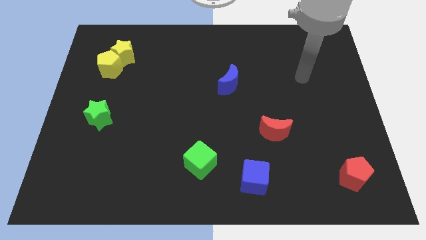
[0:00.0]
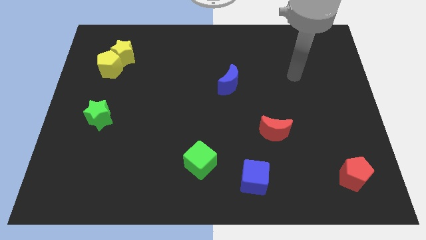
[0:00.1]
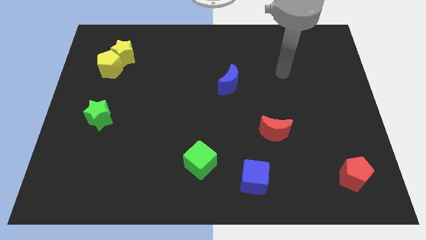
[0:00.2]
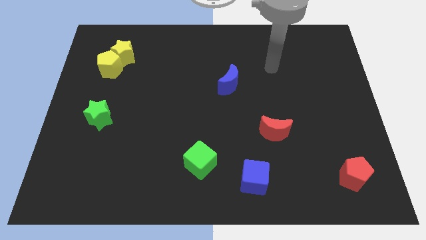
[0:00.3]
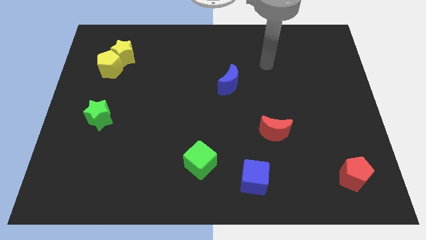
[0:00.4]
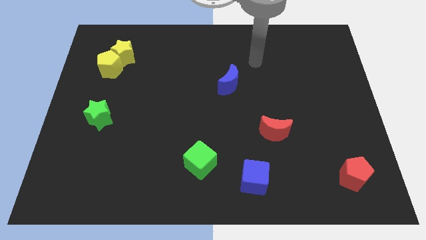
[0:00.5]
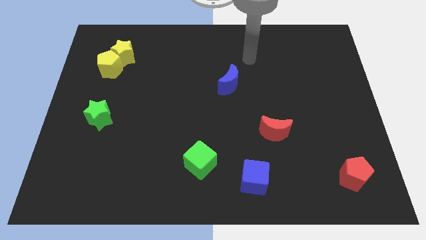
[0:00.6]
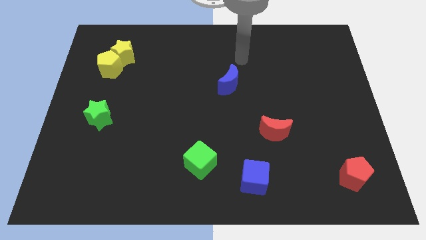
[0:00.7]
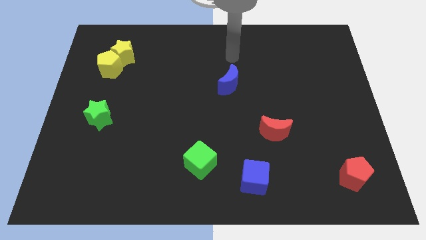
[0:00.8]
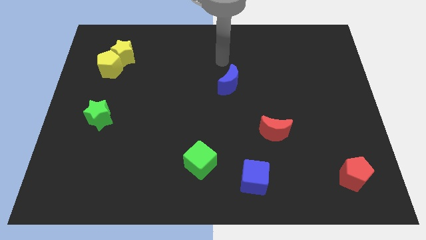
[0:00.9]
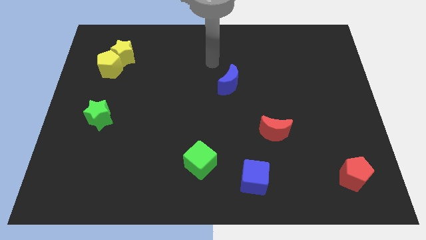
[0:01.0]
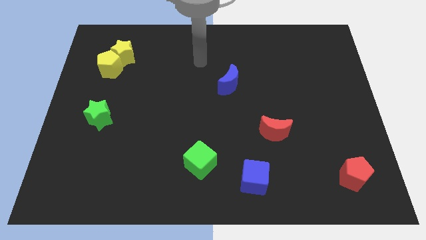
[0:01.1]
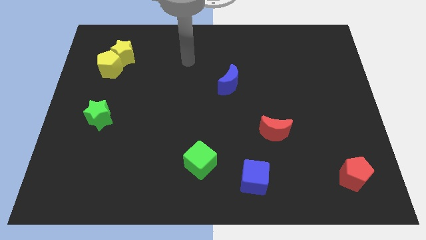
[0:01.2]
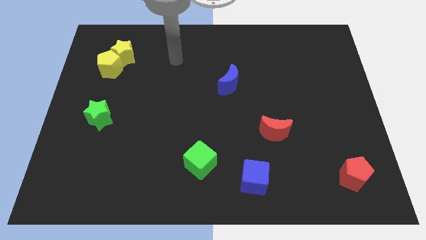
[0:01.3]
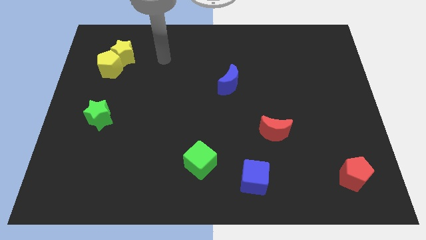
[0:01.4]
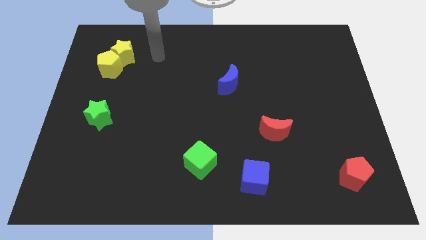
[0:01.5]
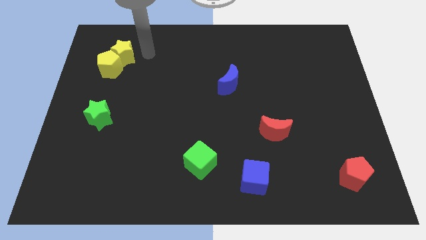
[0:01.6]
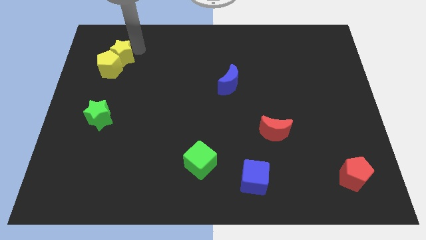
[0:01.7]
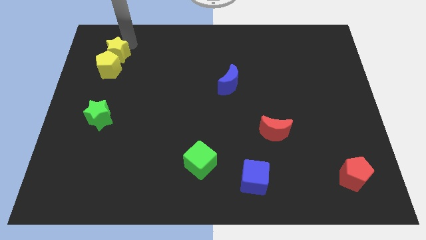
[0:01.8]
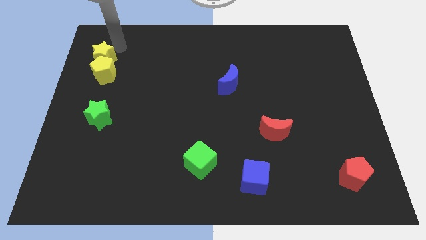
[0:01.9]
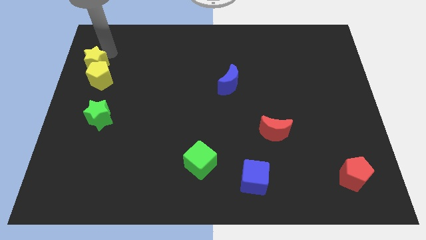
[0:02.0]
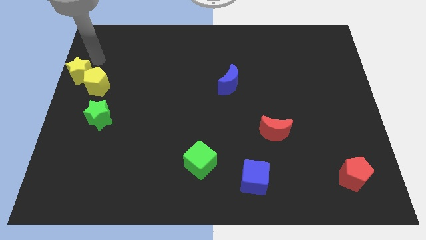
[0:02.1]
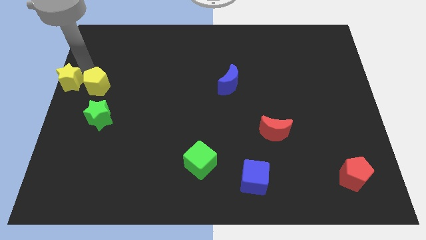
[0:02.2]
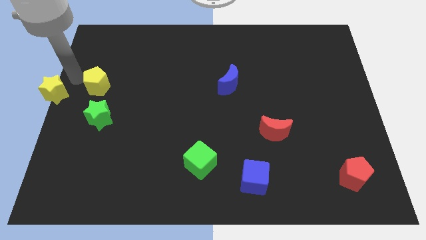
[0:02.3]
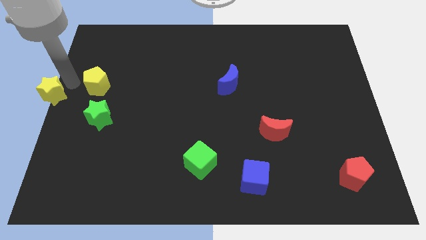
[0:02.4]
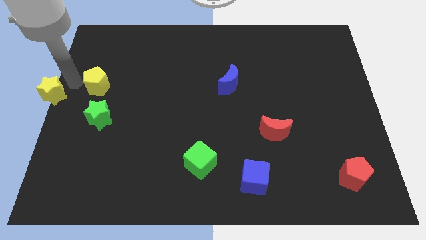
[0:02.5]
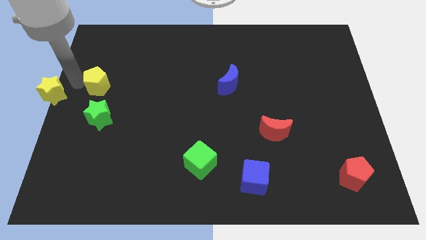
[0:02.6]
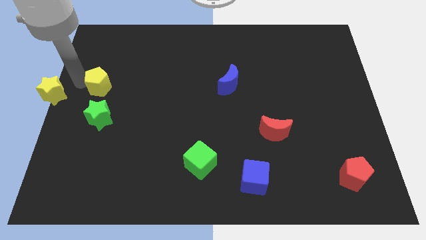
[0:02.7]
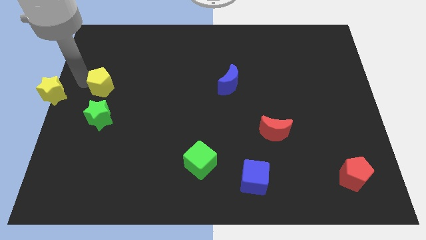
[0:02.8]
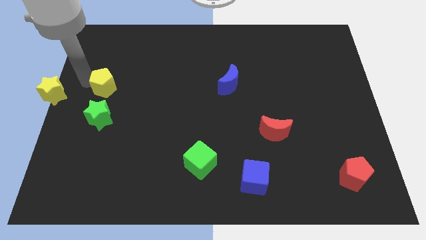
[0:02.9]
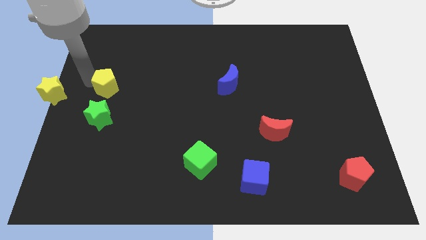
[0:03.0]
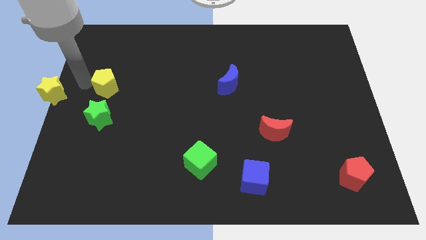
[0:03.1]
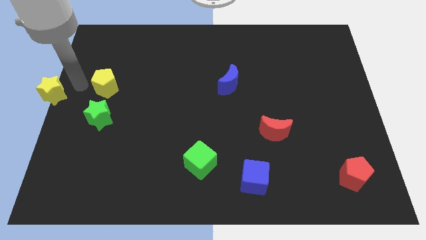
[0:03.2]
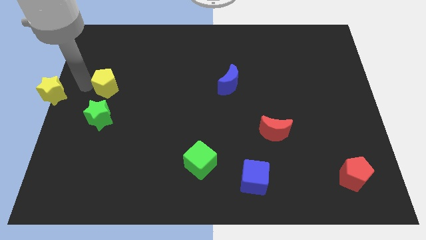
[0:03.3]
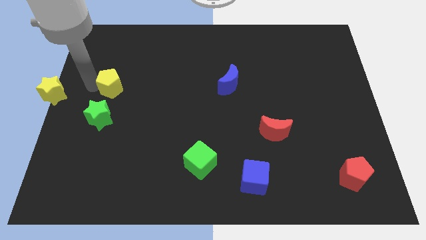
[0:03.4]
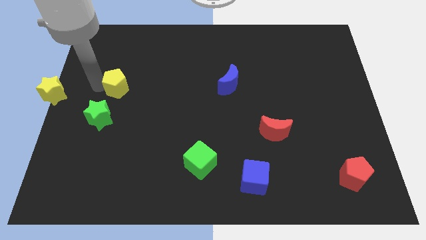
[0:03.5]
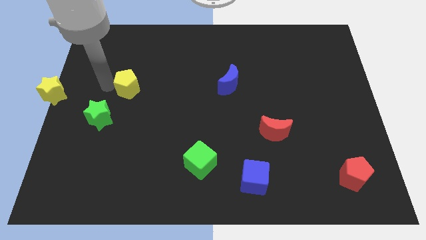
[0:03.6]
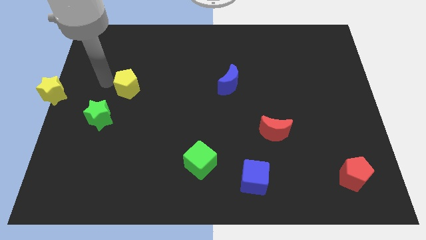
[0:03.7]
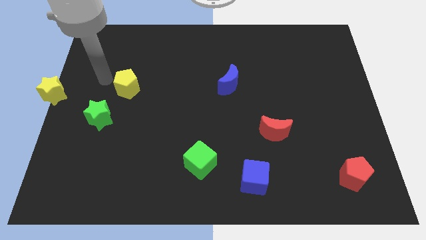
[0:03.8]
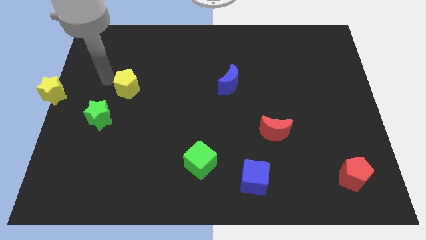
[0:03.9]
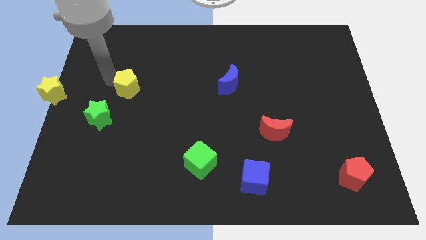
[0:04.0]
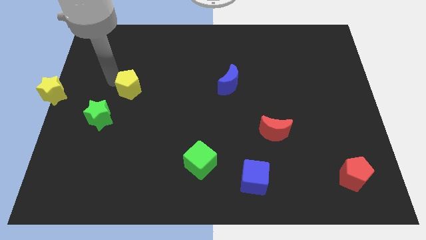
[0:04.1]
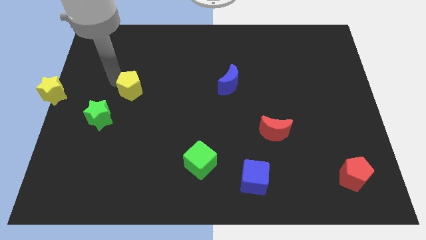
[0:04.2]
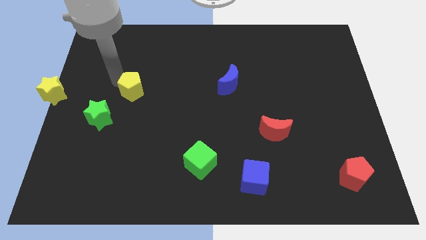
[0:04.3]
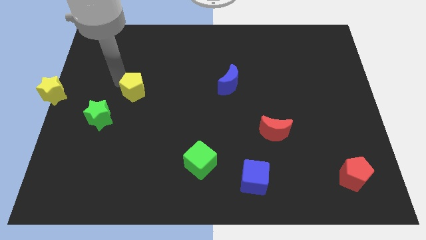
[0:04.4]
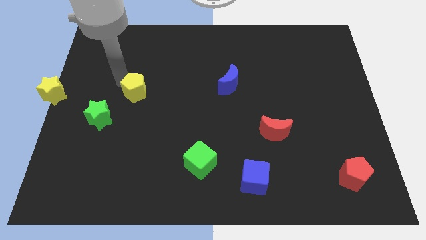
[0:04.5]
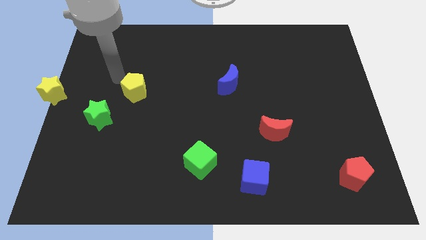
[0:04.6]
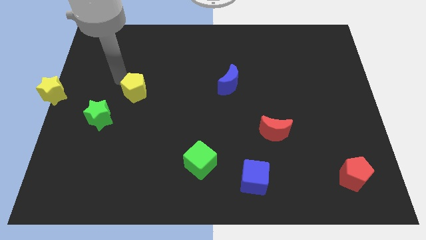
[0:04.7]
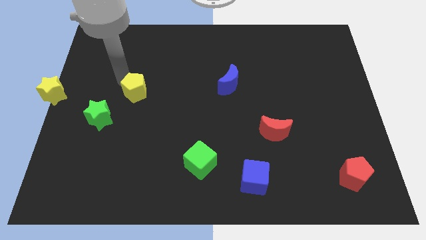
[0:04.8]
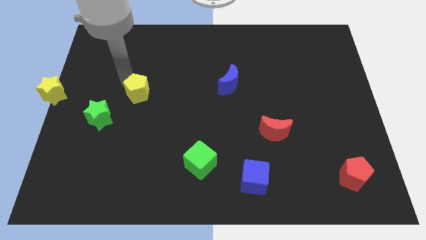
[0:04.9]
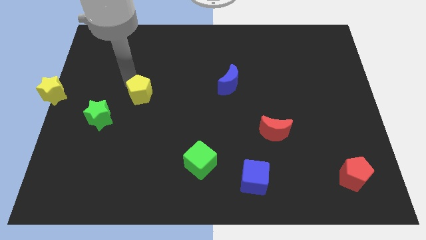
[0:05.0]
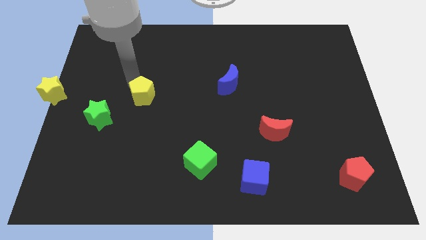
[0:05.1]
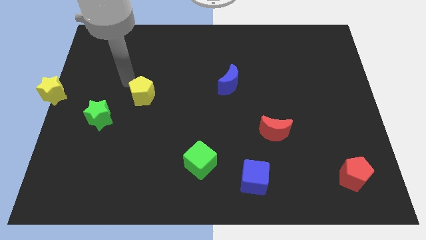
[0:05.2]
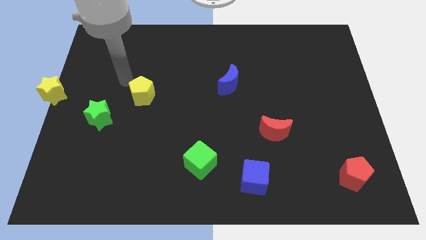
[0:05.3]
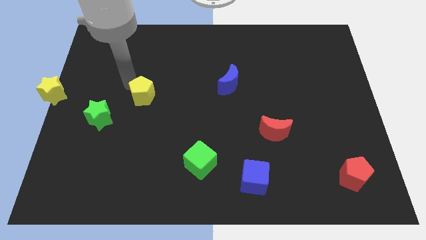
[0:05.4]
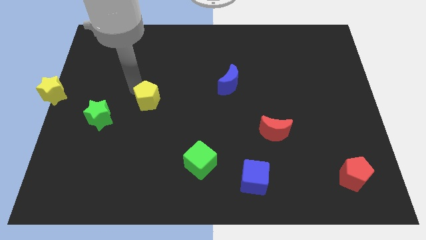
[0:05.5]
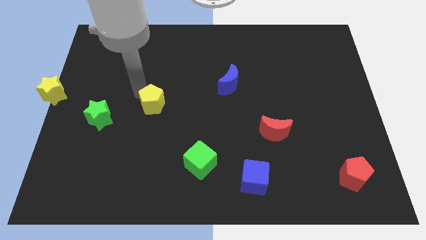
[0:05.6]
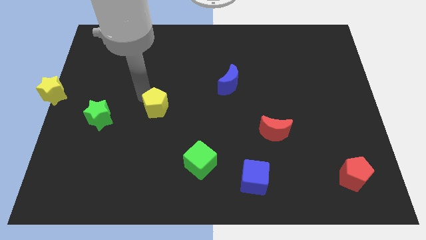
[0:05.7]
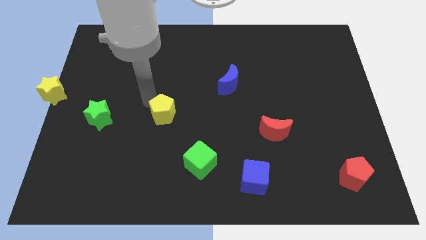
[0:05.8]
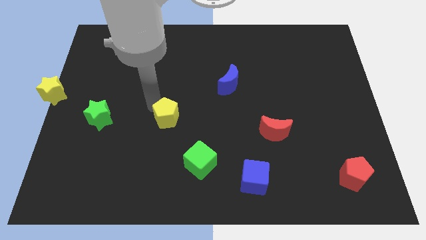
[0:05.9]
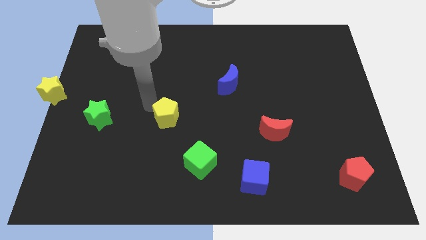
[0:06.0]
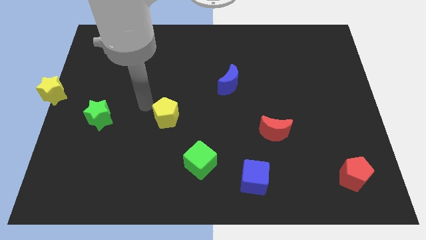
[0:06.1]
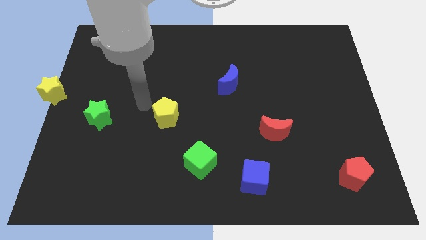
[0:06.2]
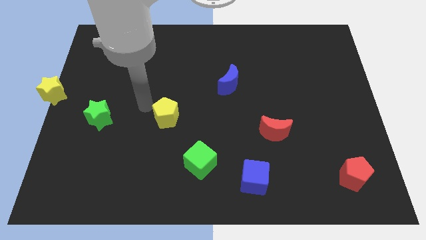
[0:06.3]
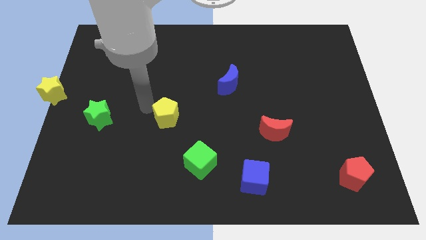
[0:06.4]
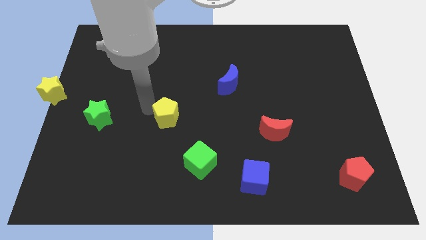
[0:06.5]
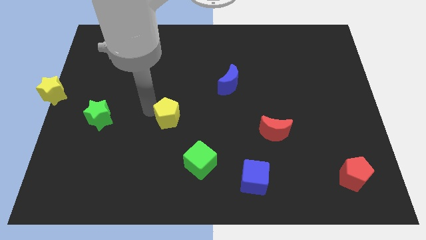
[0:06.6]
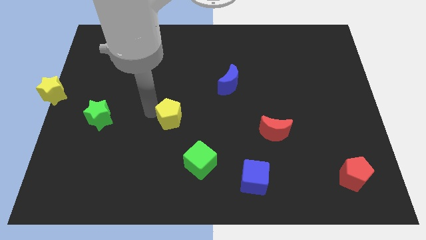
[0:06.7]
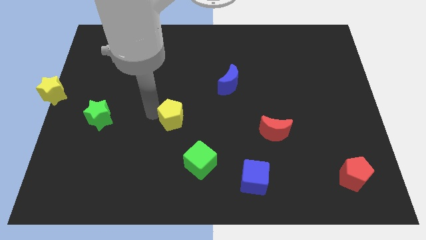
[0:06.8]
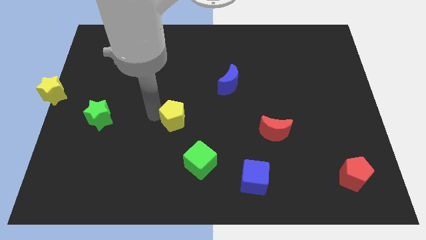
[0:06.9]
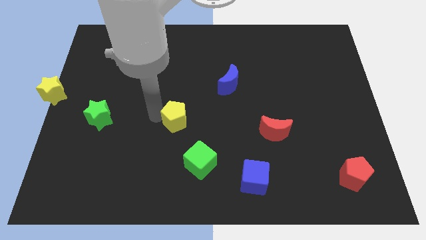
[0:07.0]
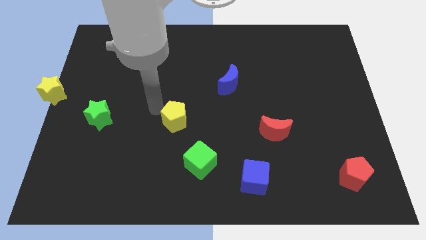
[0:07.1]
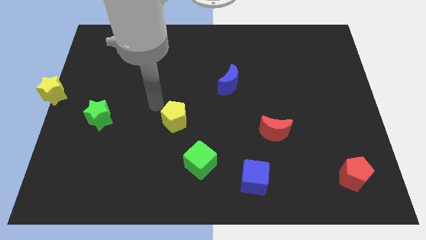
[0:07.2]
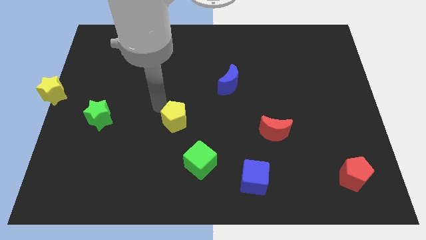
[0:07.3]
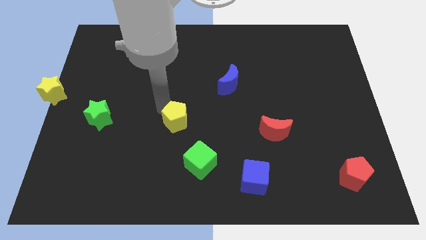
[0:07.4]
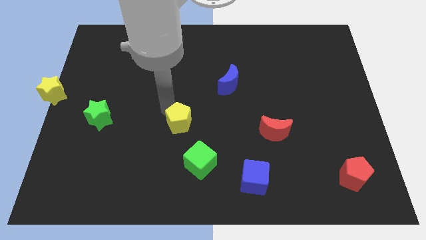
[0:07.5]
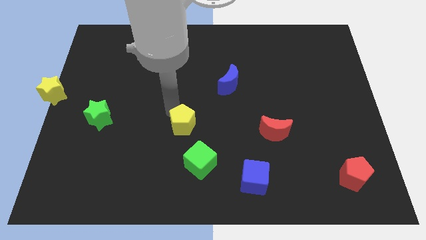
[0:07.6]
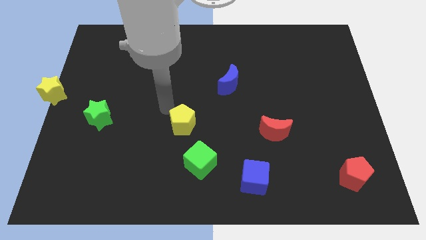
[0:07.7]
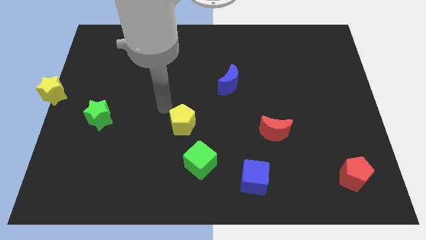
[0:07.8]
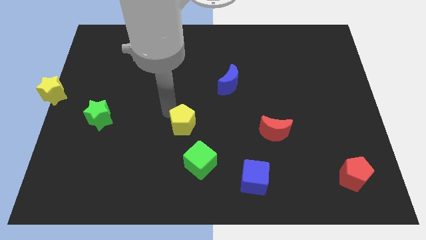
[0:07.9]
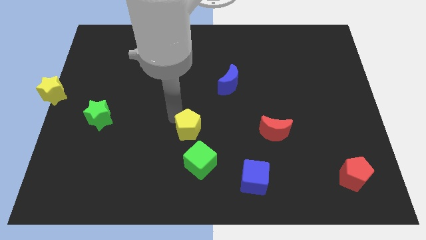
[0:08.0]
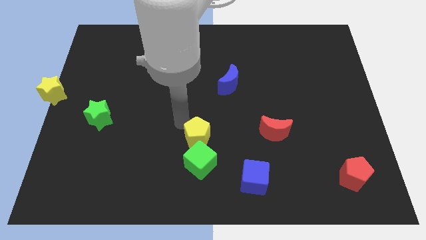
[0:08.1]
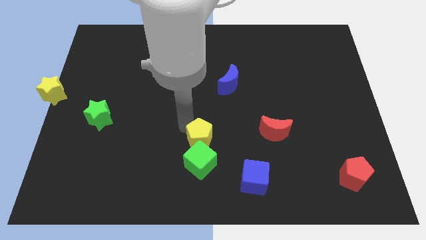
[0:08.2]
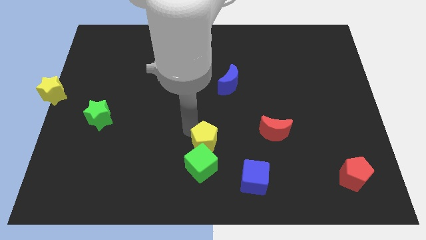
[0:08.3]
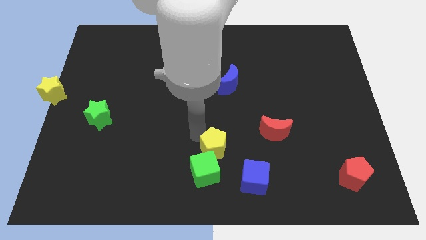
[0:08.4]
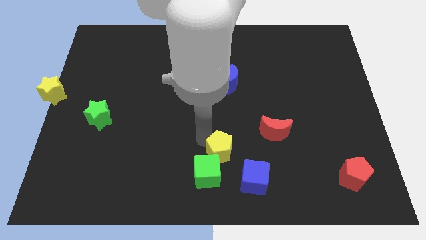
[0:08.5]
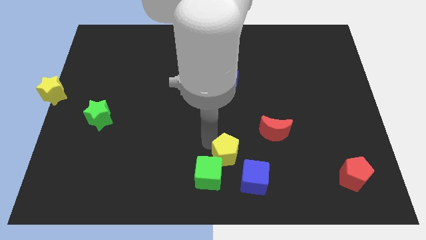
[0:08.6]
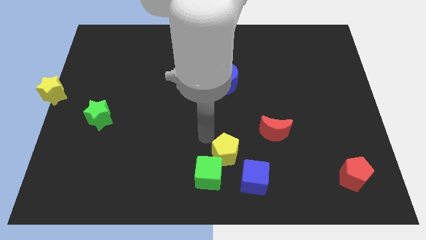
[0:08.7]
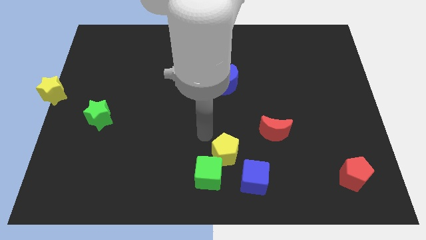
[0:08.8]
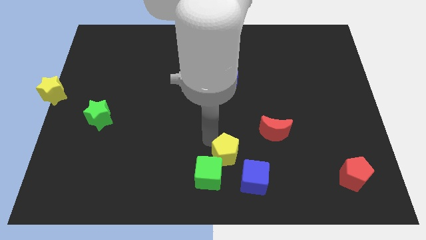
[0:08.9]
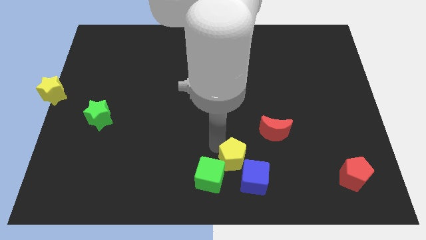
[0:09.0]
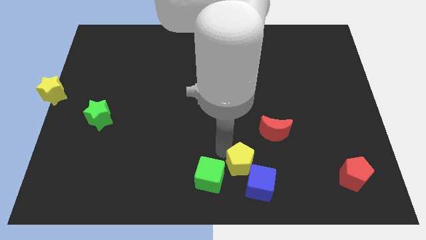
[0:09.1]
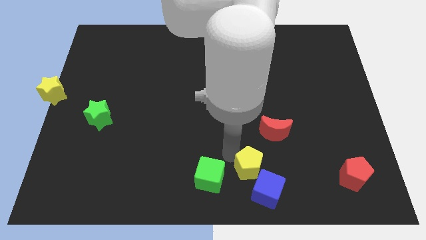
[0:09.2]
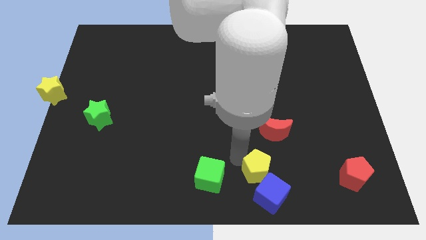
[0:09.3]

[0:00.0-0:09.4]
move the yellow pentagon towards the blue cube
